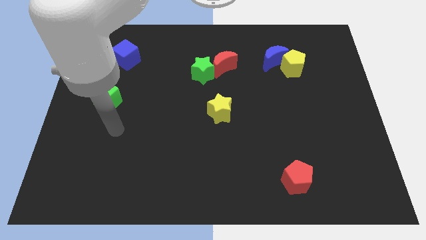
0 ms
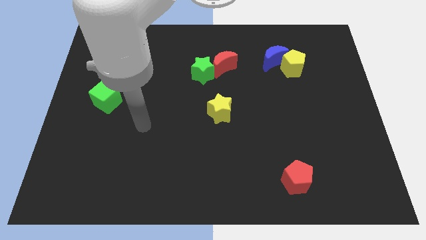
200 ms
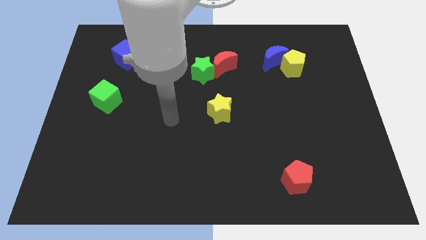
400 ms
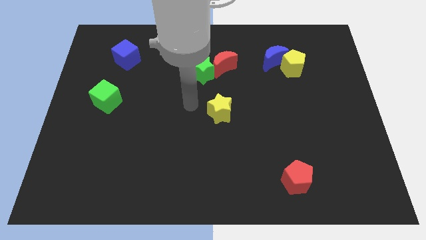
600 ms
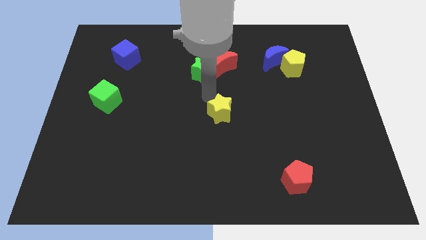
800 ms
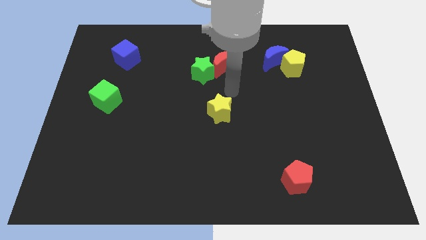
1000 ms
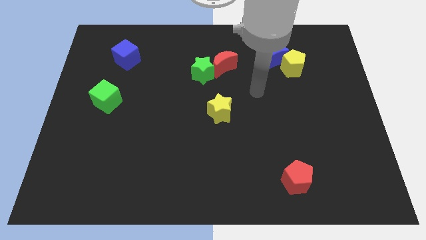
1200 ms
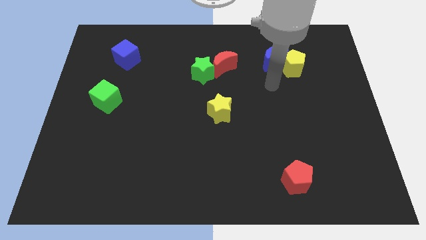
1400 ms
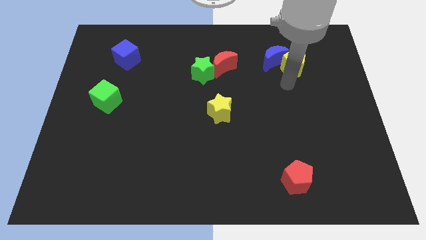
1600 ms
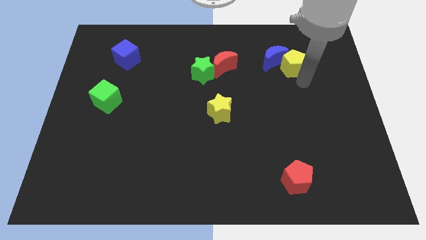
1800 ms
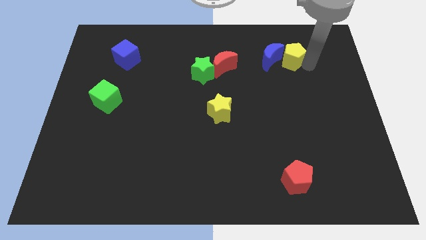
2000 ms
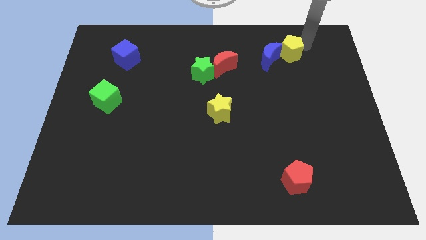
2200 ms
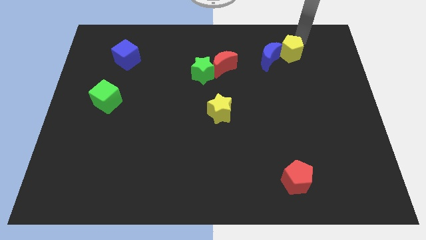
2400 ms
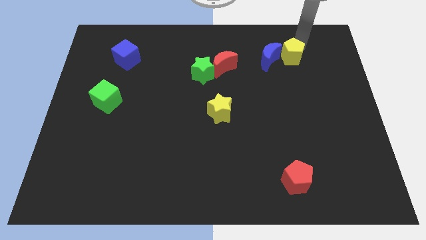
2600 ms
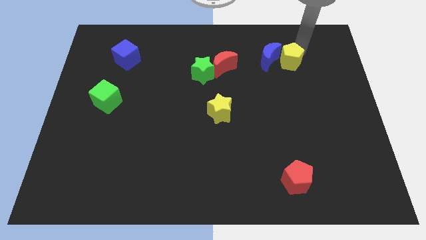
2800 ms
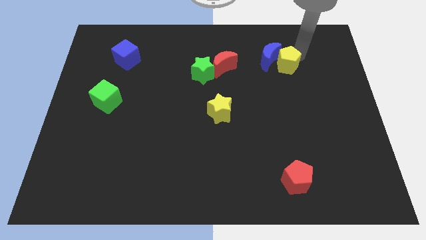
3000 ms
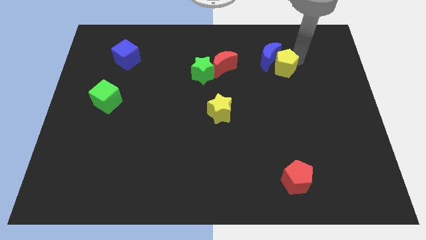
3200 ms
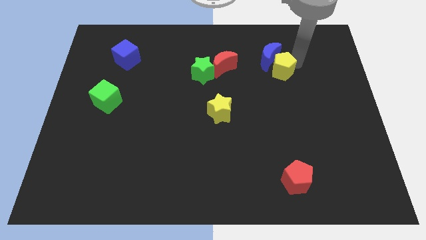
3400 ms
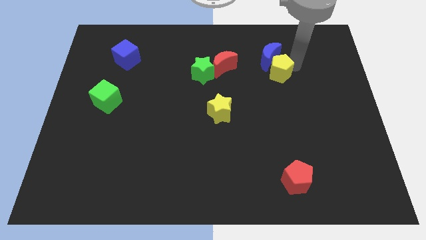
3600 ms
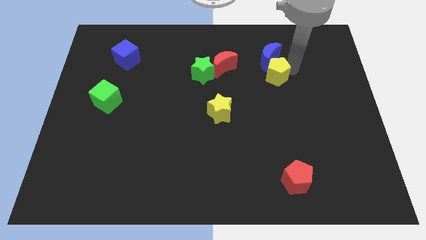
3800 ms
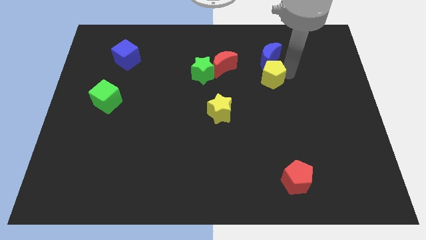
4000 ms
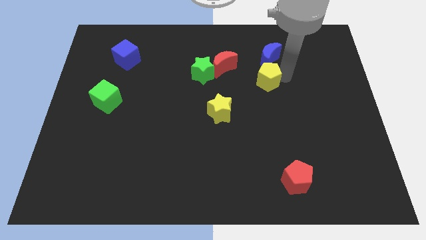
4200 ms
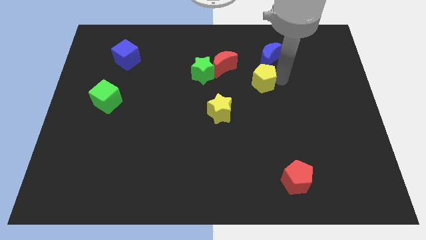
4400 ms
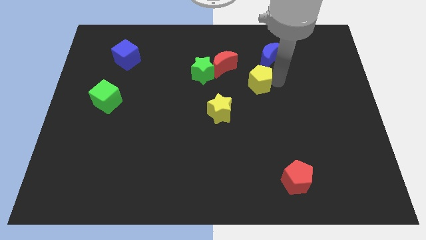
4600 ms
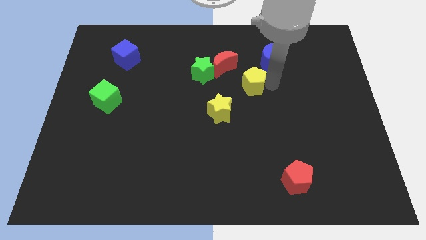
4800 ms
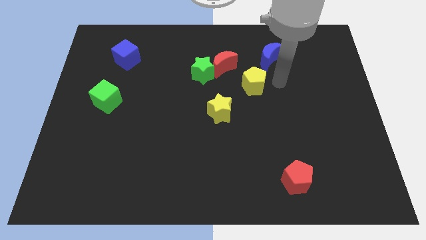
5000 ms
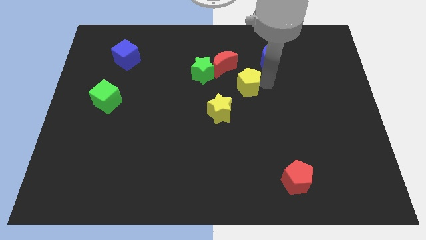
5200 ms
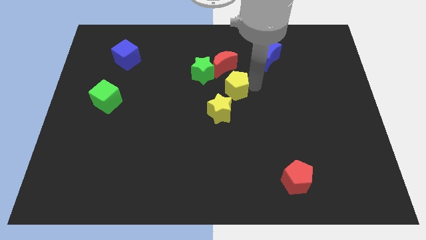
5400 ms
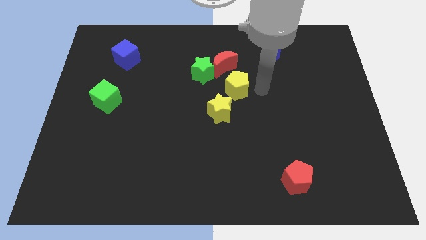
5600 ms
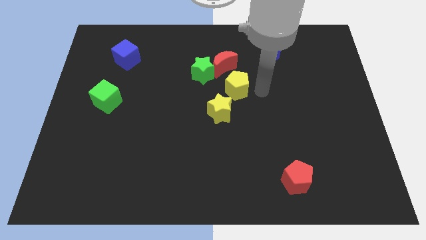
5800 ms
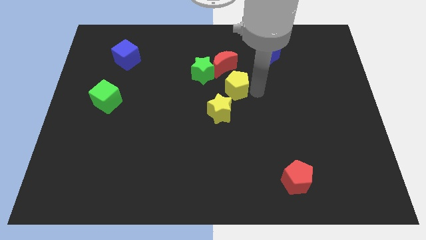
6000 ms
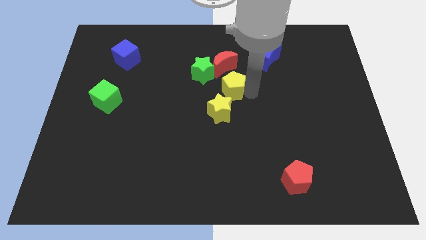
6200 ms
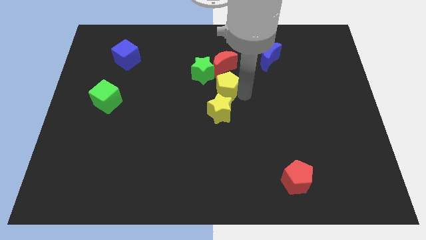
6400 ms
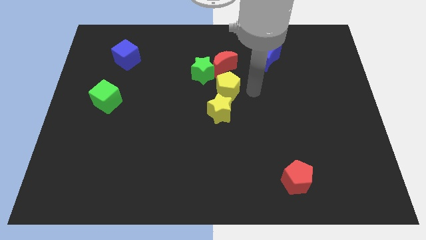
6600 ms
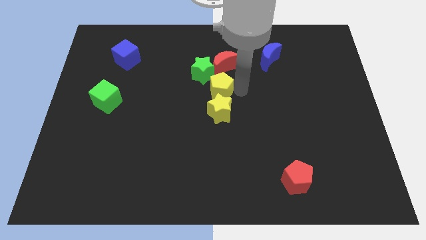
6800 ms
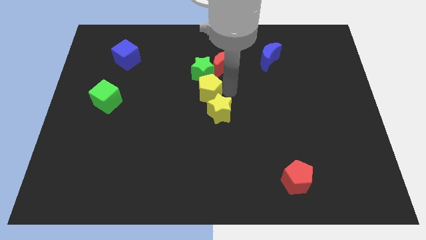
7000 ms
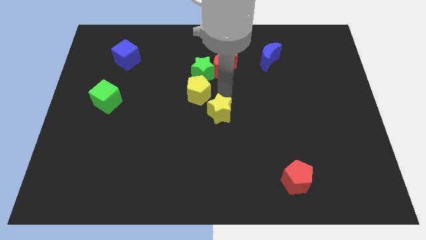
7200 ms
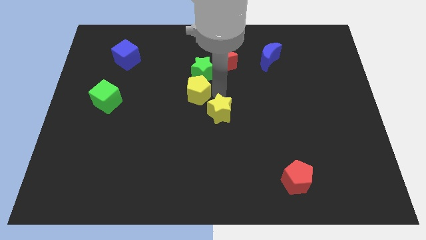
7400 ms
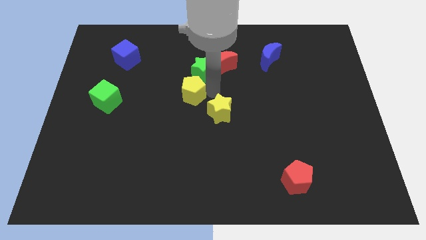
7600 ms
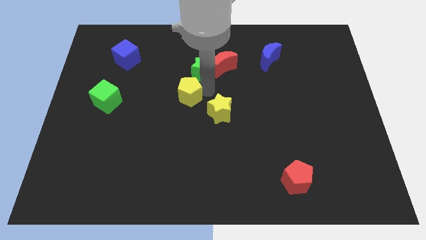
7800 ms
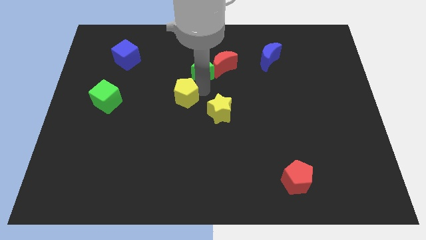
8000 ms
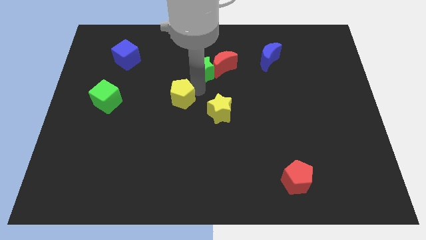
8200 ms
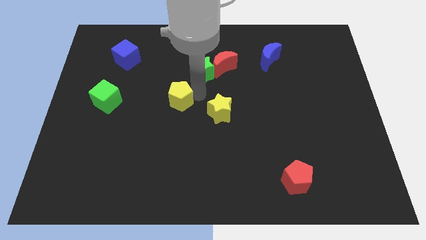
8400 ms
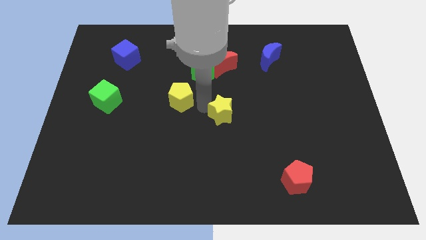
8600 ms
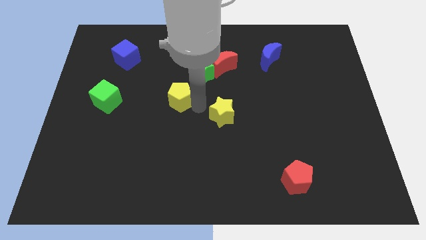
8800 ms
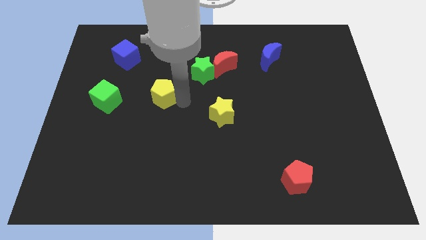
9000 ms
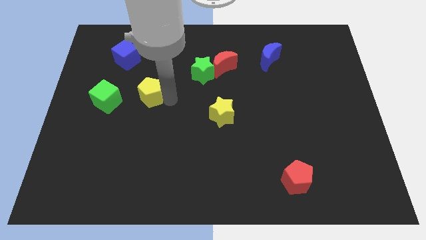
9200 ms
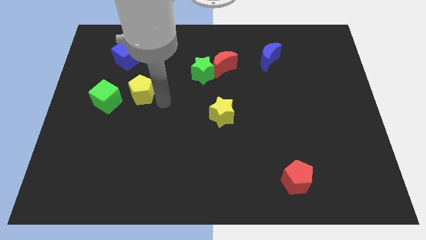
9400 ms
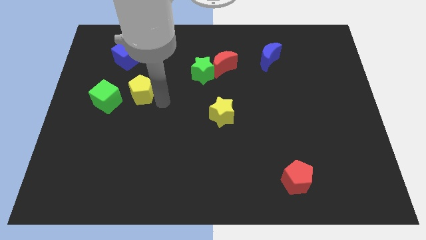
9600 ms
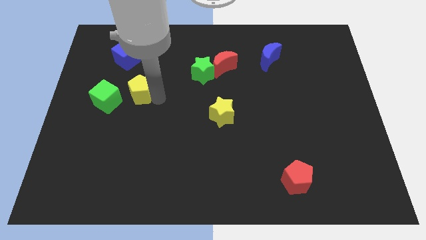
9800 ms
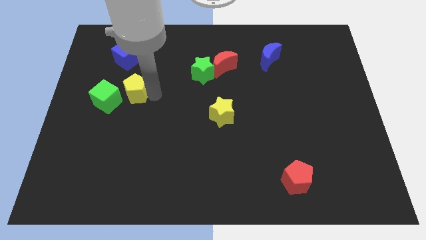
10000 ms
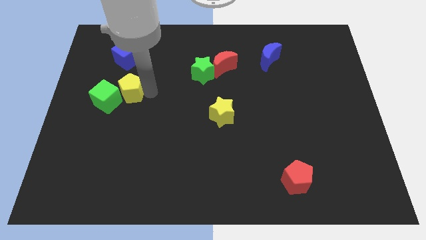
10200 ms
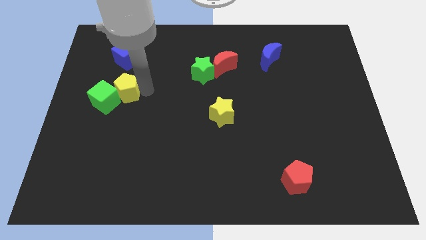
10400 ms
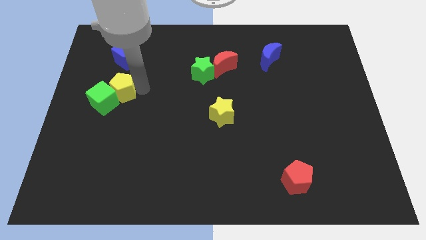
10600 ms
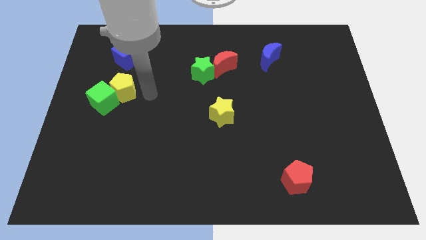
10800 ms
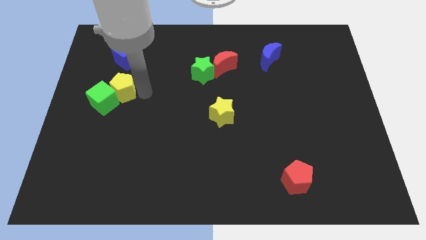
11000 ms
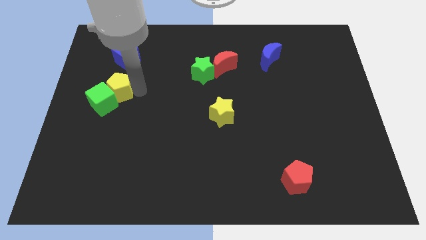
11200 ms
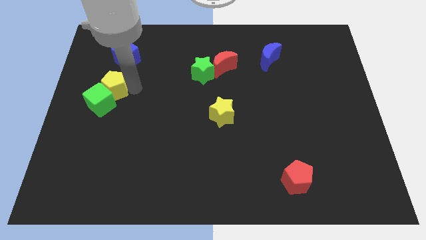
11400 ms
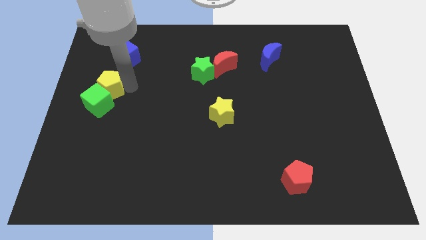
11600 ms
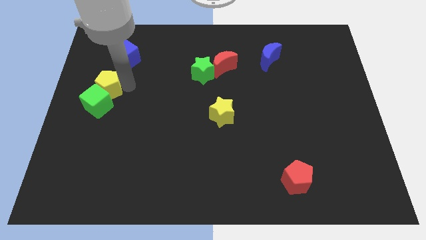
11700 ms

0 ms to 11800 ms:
slide the yellow pentagon to the center left
